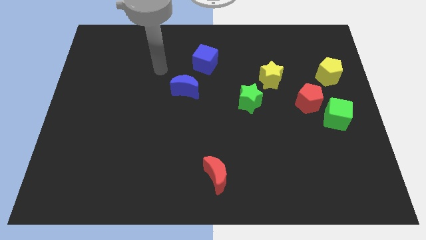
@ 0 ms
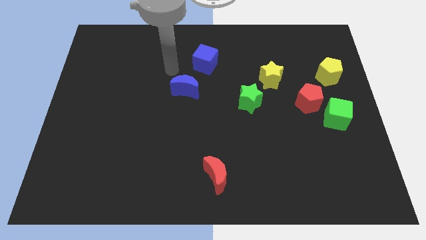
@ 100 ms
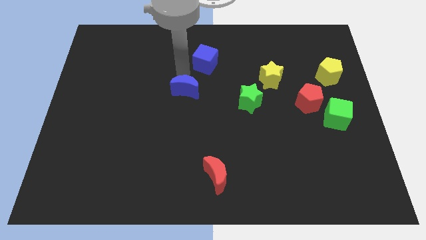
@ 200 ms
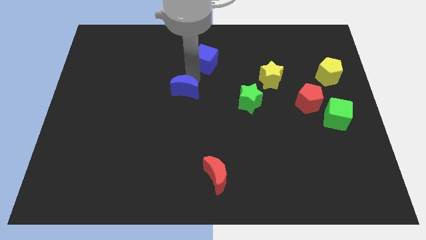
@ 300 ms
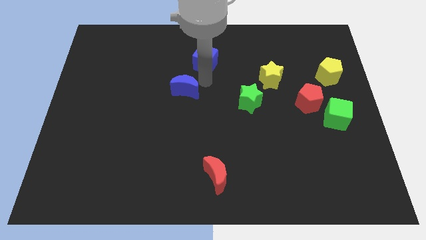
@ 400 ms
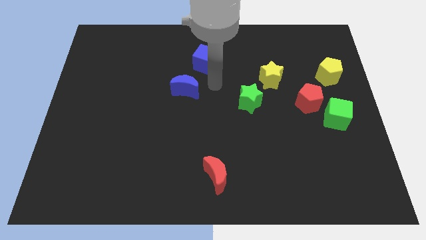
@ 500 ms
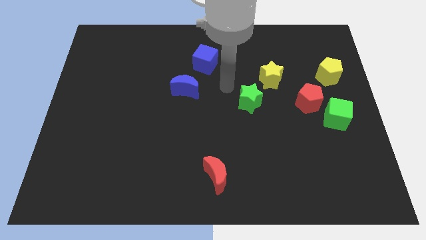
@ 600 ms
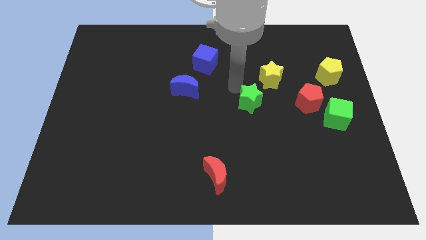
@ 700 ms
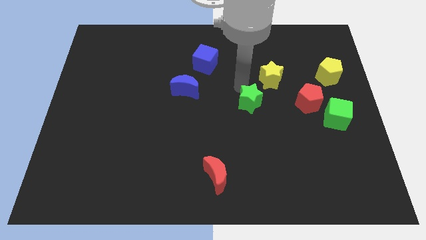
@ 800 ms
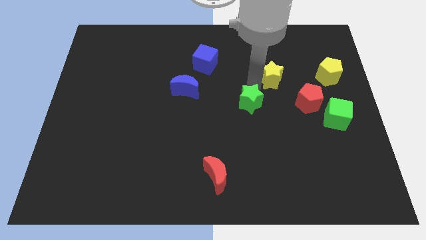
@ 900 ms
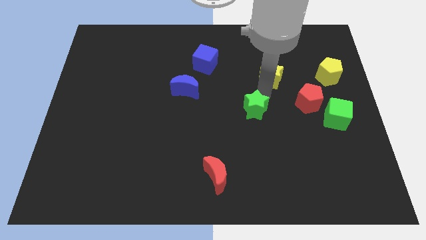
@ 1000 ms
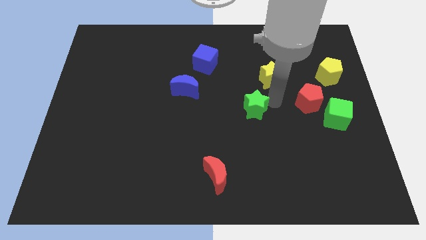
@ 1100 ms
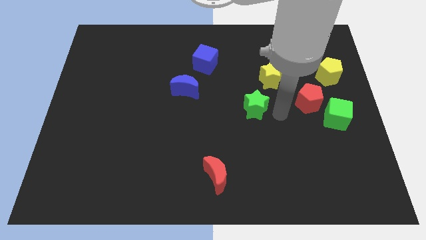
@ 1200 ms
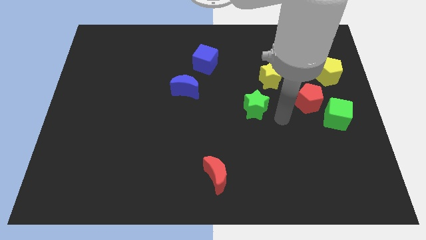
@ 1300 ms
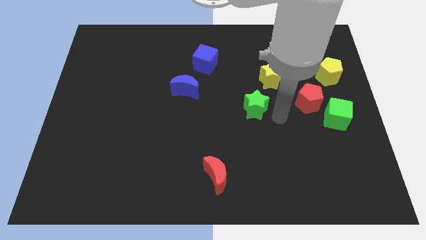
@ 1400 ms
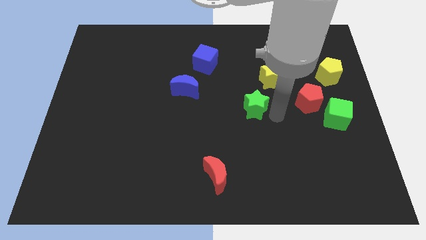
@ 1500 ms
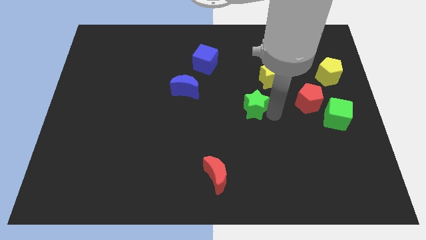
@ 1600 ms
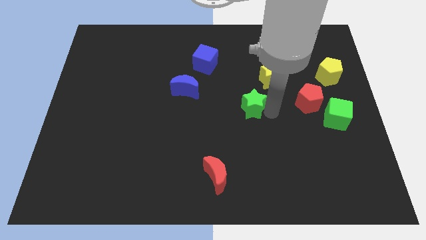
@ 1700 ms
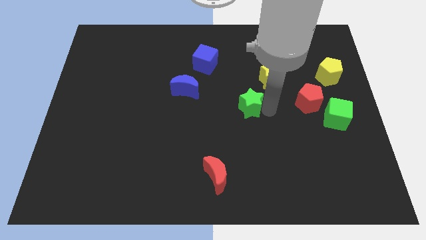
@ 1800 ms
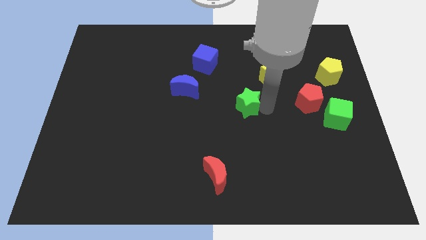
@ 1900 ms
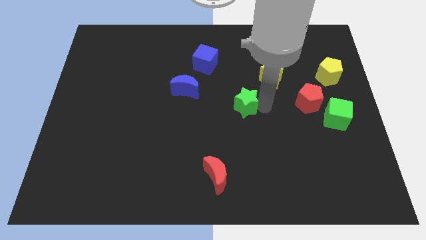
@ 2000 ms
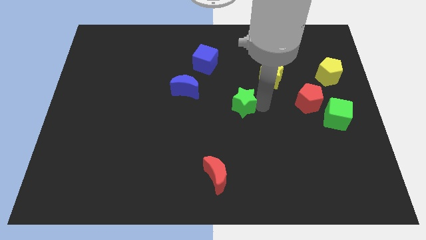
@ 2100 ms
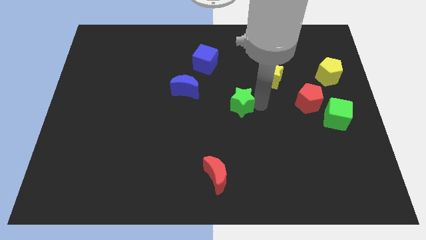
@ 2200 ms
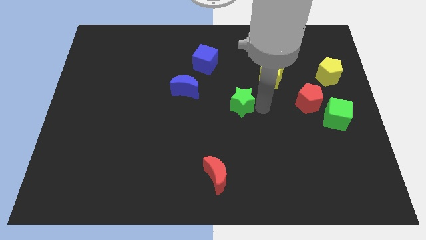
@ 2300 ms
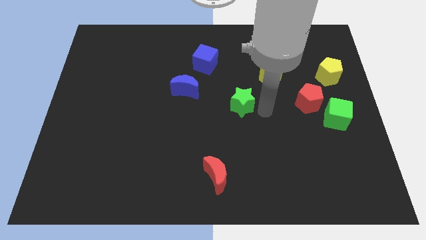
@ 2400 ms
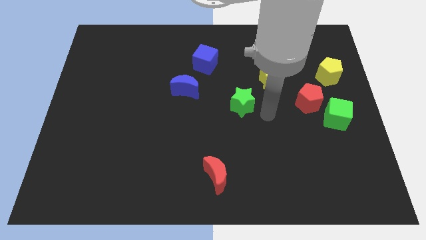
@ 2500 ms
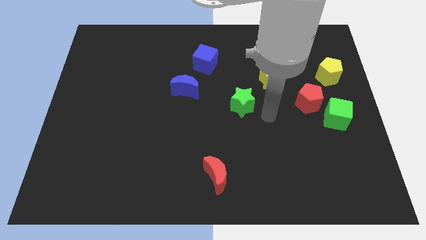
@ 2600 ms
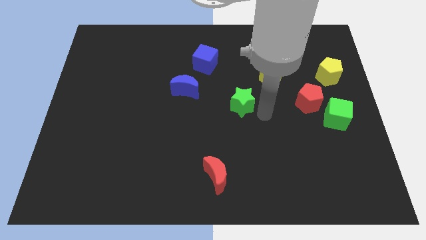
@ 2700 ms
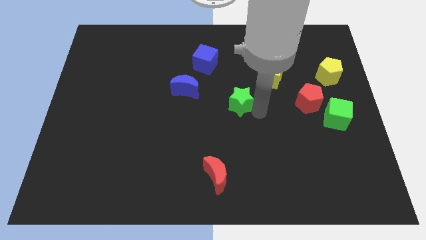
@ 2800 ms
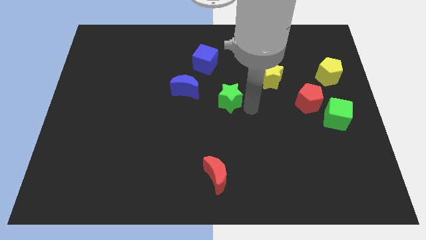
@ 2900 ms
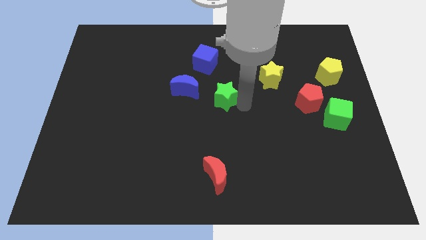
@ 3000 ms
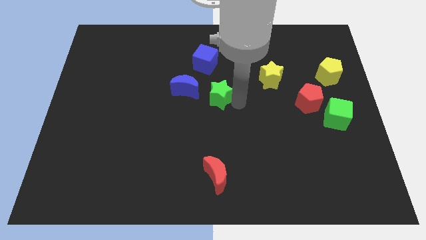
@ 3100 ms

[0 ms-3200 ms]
move the green star to the left slightly

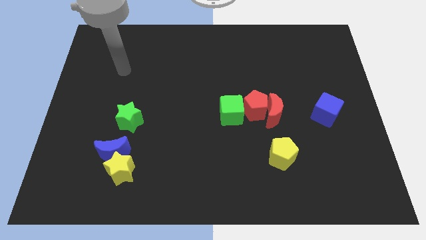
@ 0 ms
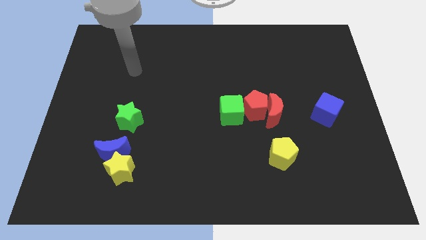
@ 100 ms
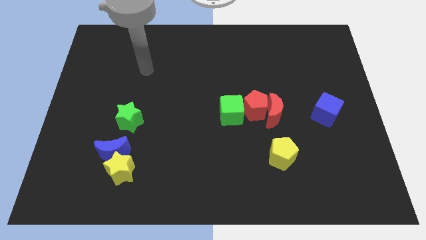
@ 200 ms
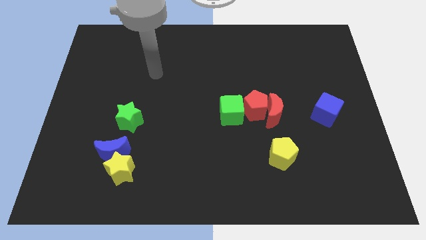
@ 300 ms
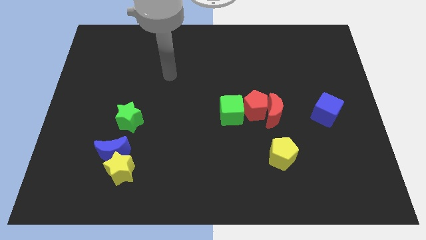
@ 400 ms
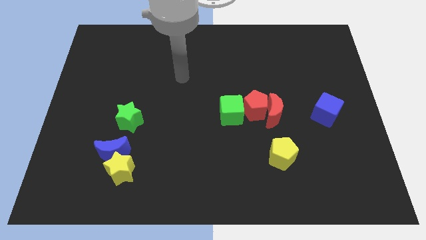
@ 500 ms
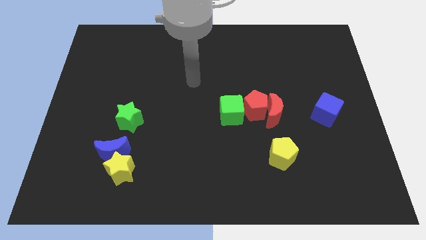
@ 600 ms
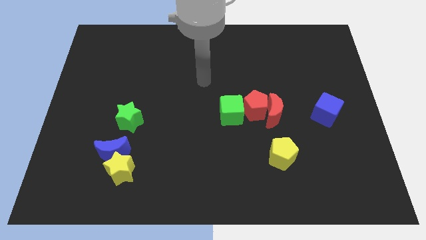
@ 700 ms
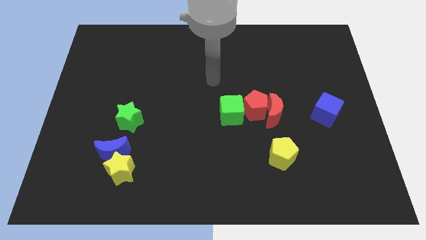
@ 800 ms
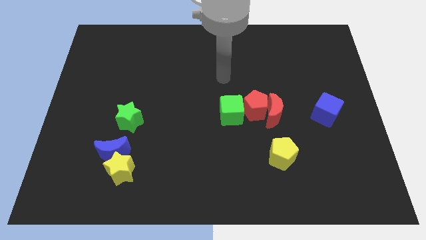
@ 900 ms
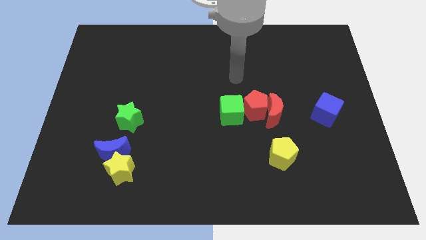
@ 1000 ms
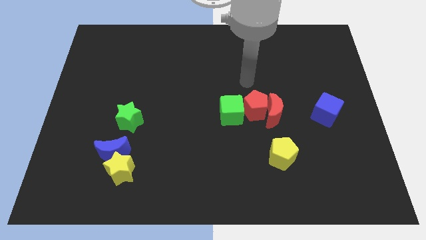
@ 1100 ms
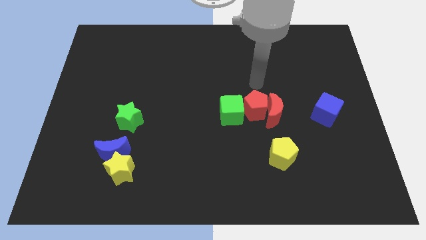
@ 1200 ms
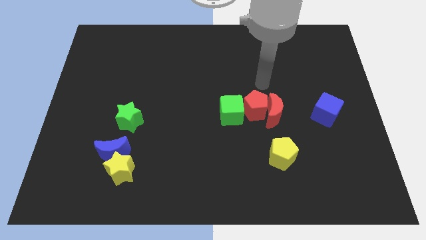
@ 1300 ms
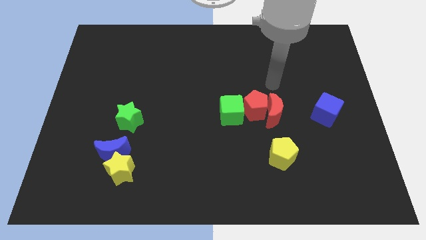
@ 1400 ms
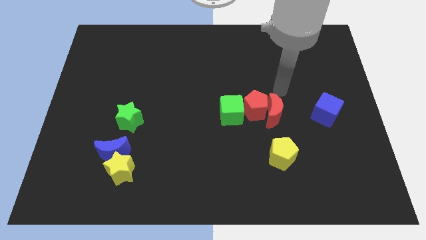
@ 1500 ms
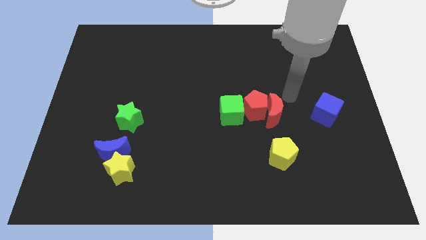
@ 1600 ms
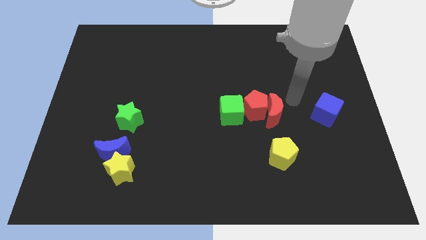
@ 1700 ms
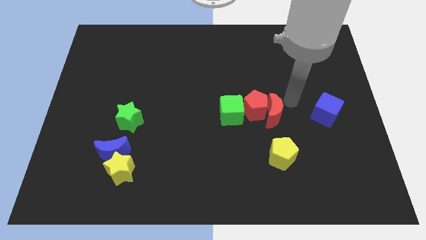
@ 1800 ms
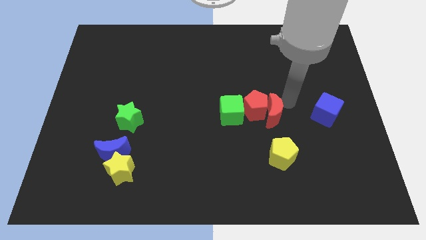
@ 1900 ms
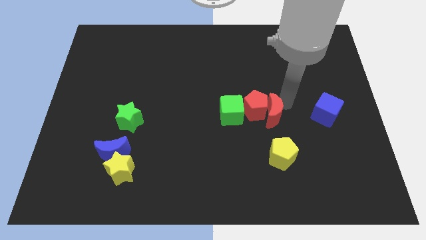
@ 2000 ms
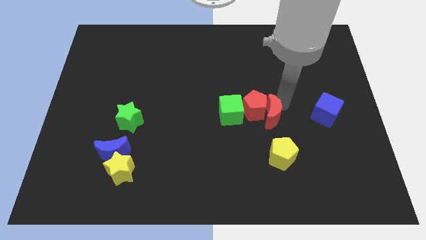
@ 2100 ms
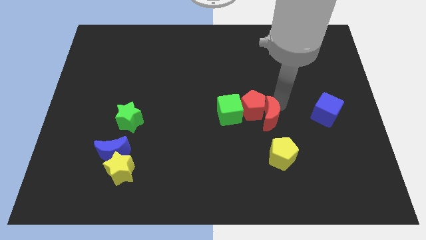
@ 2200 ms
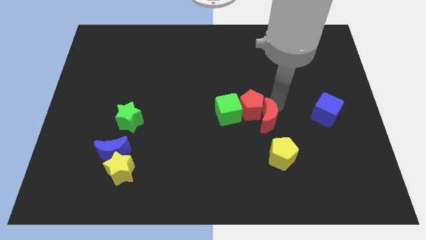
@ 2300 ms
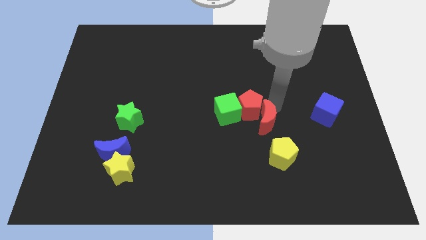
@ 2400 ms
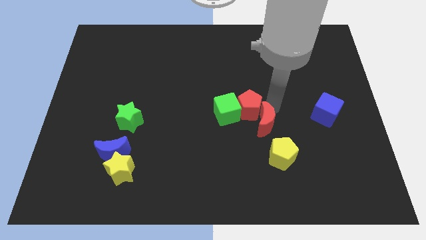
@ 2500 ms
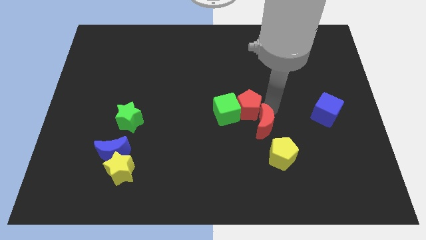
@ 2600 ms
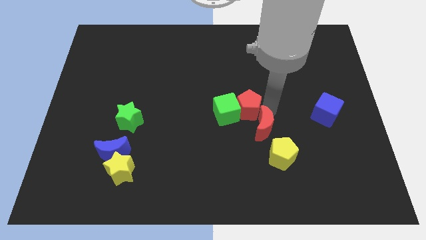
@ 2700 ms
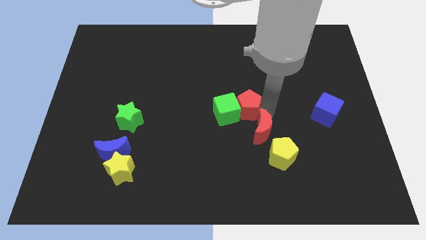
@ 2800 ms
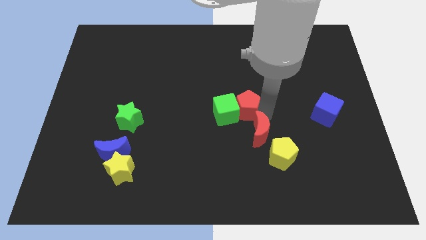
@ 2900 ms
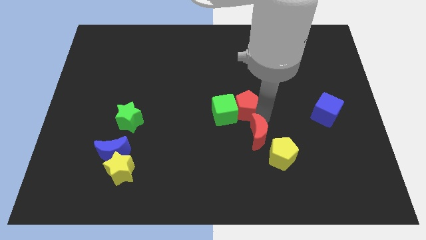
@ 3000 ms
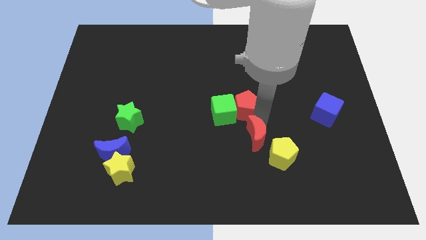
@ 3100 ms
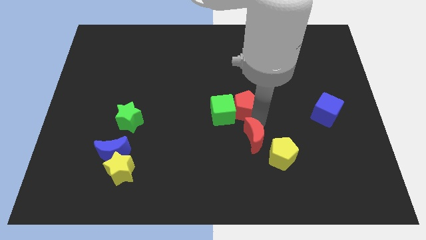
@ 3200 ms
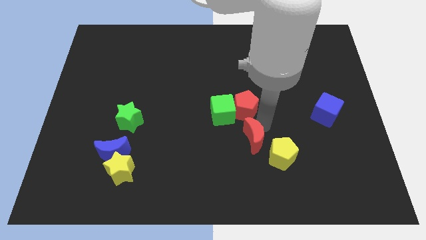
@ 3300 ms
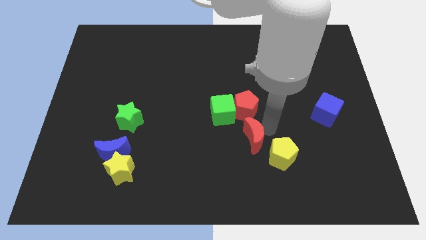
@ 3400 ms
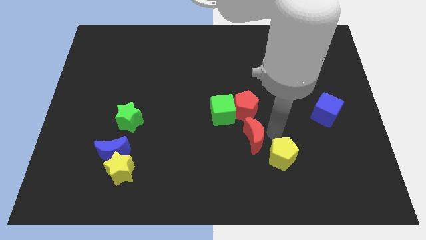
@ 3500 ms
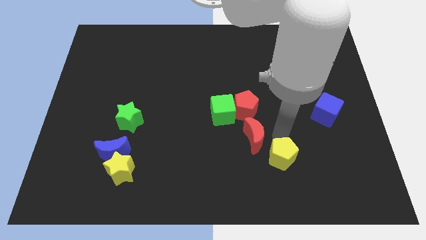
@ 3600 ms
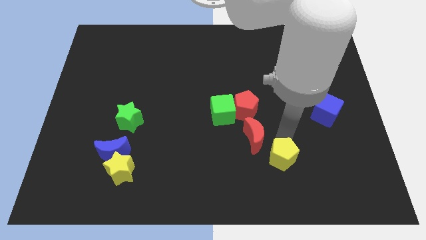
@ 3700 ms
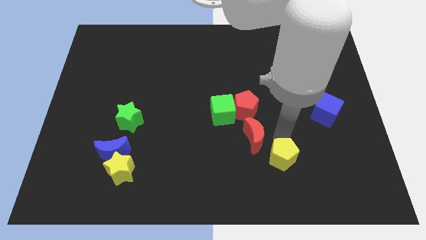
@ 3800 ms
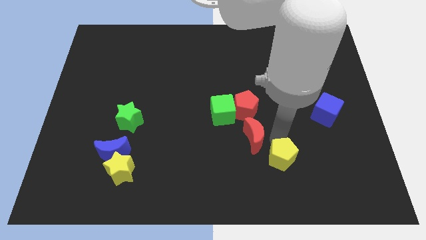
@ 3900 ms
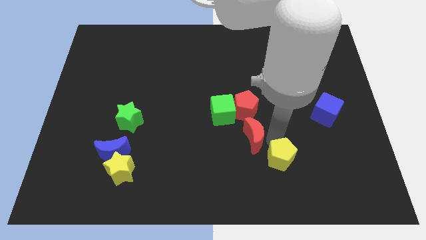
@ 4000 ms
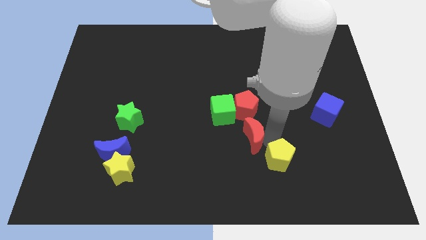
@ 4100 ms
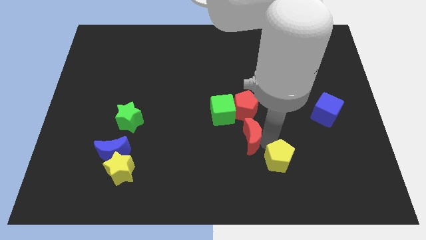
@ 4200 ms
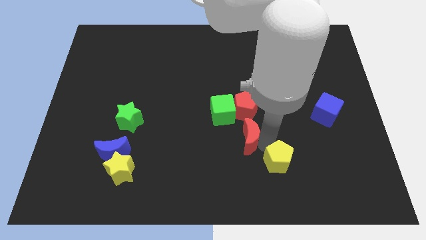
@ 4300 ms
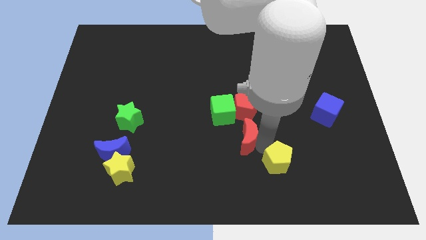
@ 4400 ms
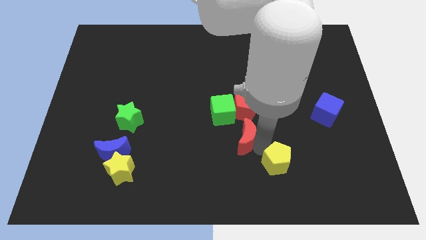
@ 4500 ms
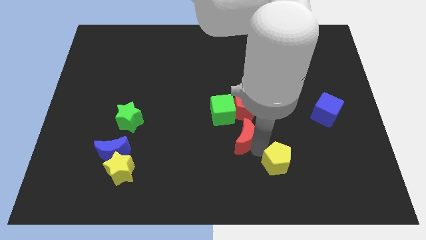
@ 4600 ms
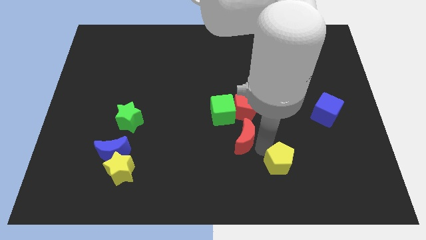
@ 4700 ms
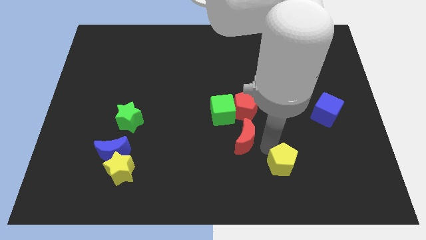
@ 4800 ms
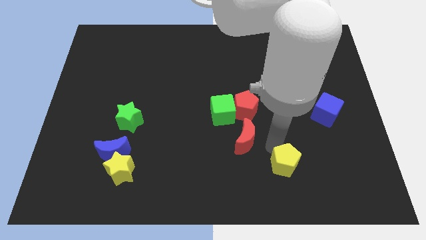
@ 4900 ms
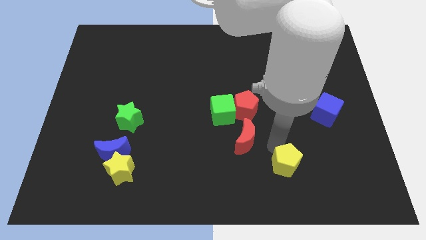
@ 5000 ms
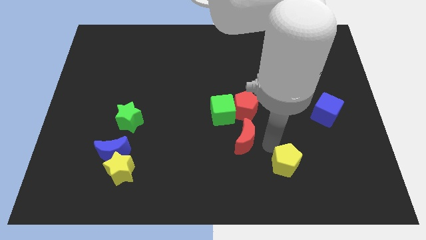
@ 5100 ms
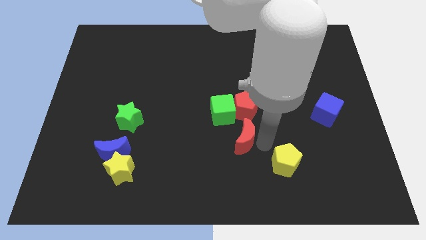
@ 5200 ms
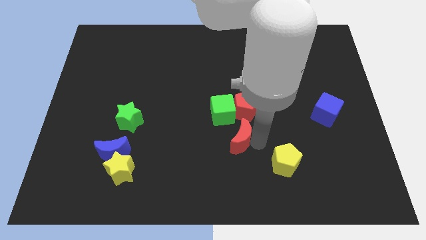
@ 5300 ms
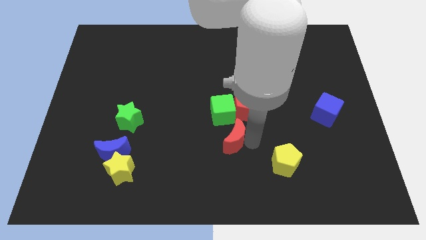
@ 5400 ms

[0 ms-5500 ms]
move the red moon slightly left
